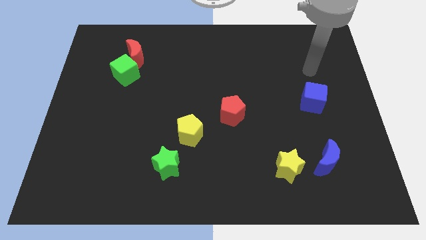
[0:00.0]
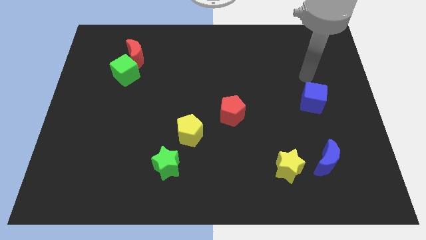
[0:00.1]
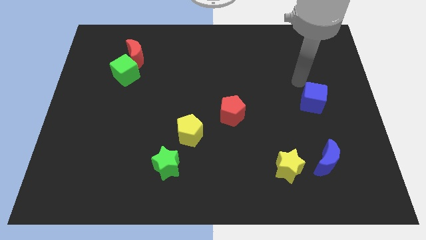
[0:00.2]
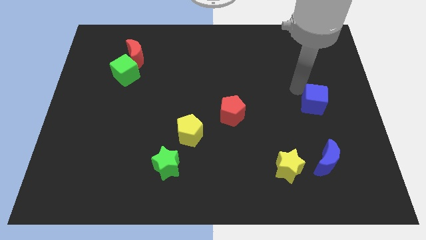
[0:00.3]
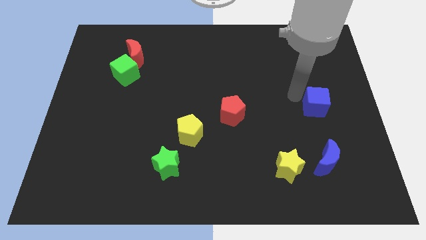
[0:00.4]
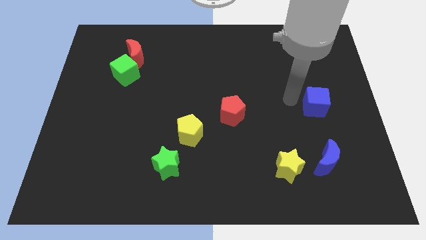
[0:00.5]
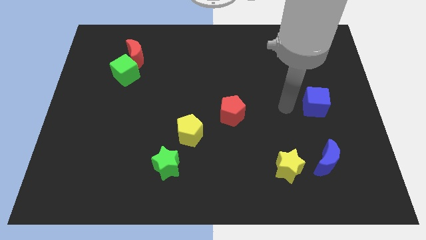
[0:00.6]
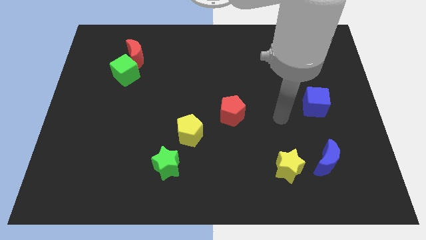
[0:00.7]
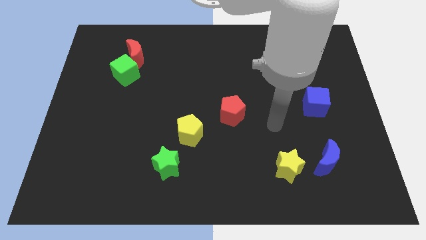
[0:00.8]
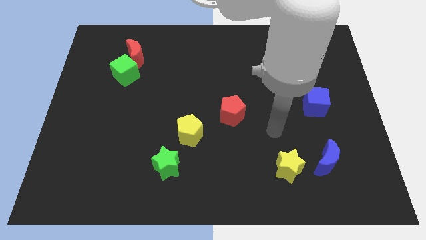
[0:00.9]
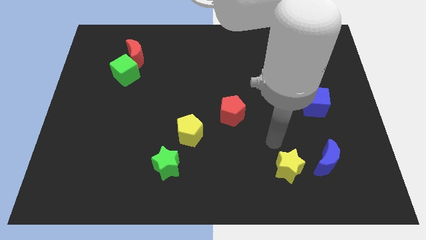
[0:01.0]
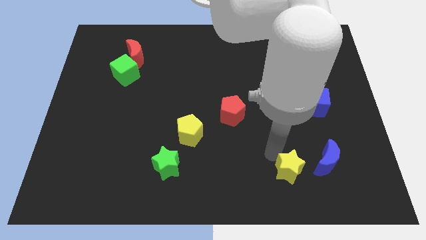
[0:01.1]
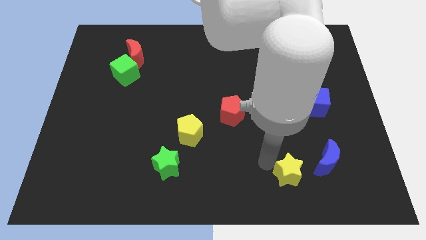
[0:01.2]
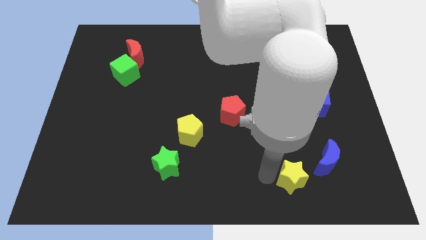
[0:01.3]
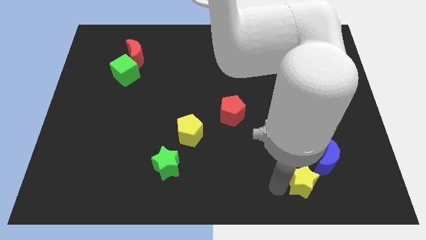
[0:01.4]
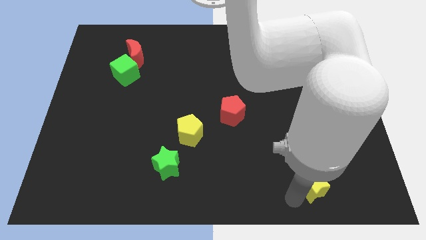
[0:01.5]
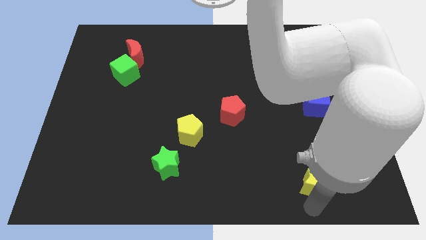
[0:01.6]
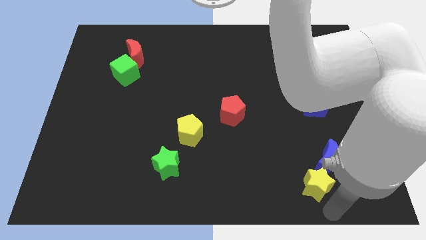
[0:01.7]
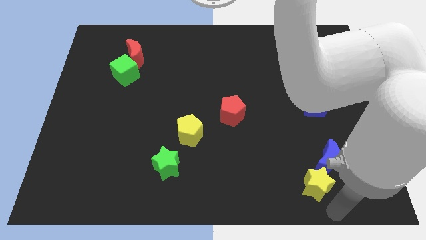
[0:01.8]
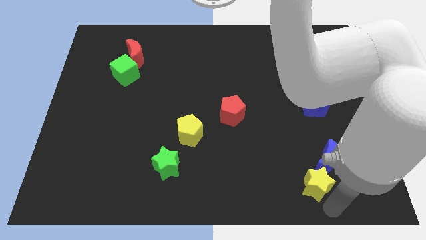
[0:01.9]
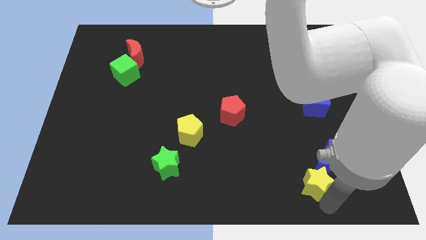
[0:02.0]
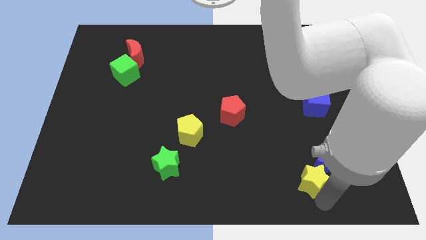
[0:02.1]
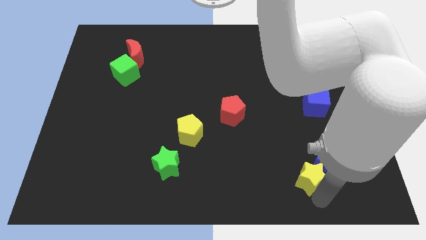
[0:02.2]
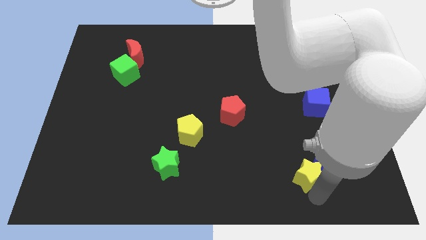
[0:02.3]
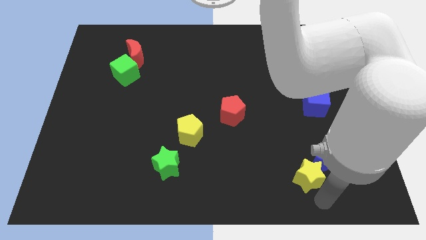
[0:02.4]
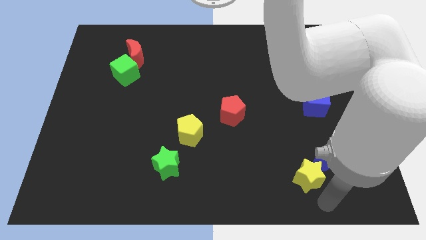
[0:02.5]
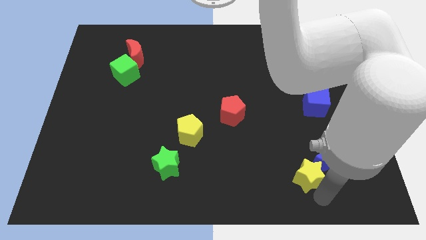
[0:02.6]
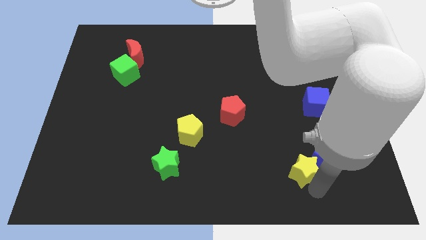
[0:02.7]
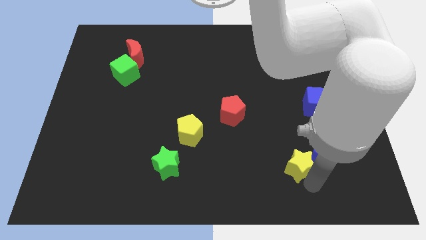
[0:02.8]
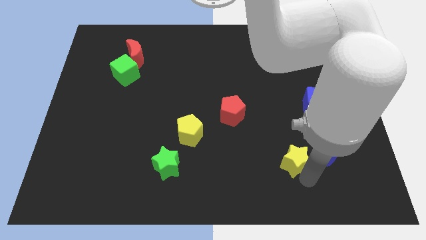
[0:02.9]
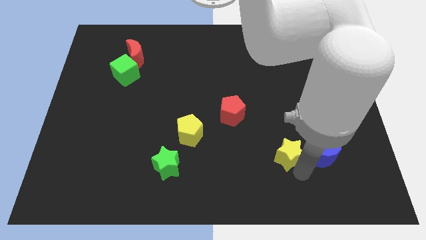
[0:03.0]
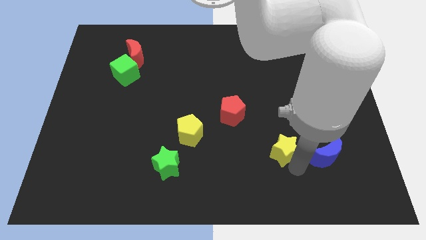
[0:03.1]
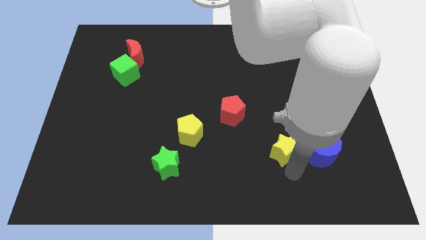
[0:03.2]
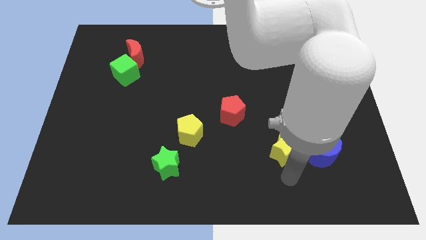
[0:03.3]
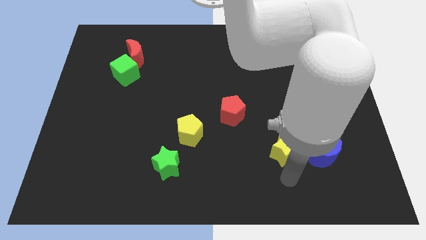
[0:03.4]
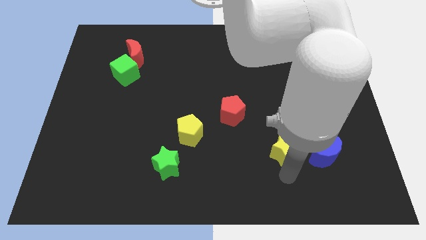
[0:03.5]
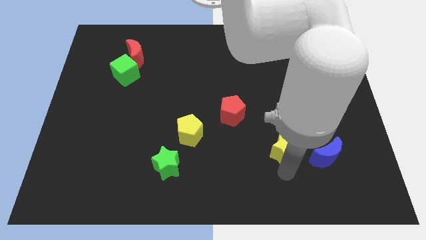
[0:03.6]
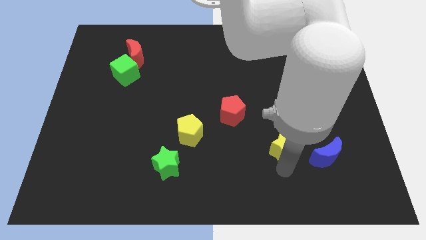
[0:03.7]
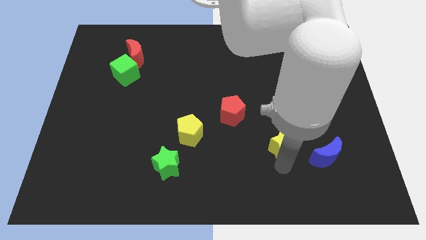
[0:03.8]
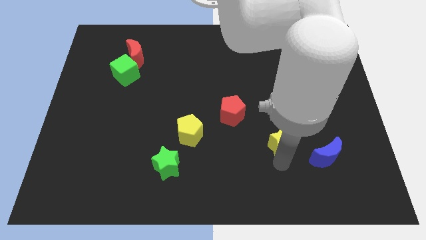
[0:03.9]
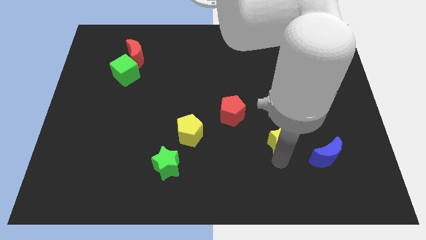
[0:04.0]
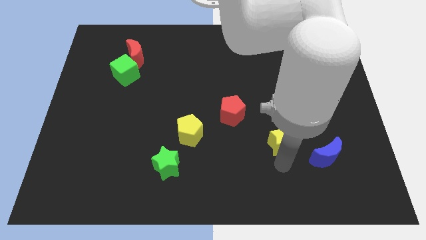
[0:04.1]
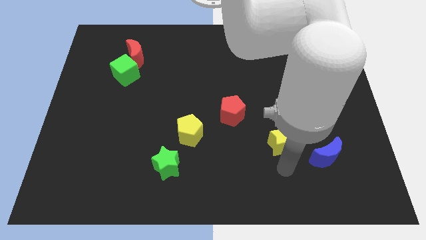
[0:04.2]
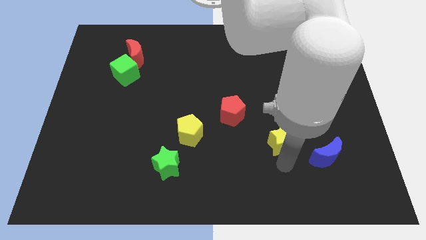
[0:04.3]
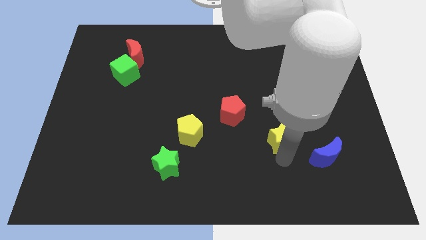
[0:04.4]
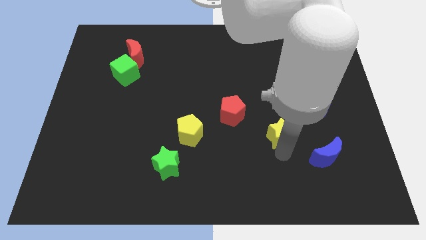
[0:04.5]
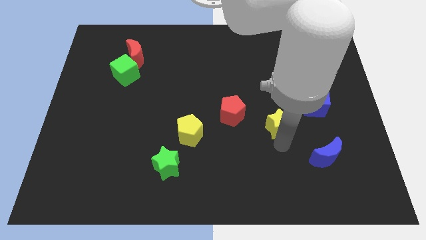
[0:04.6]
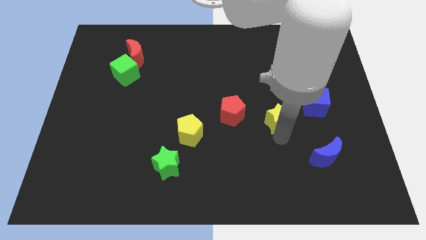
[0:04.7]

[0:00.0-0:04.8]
move the yellow star to the left side of the blue cube

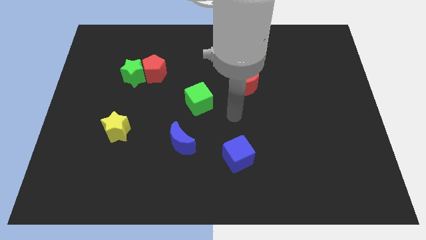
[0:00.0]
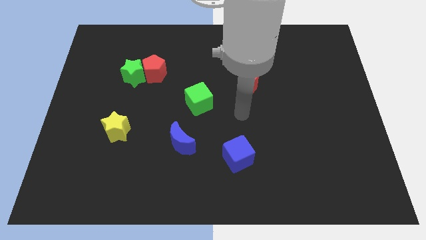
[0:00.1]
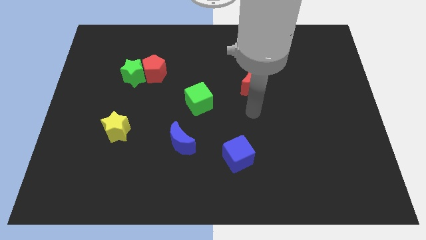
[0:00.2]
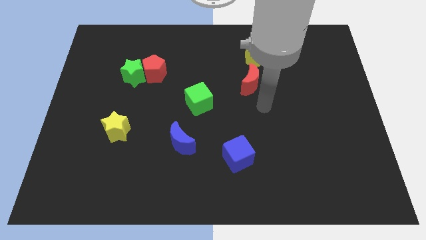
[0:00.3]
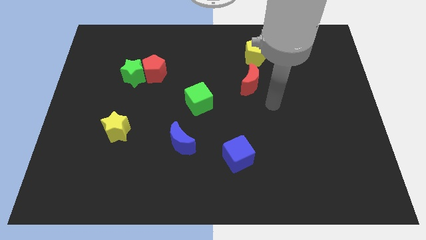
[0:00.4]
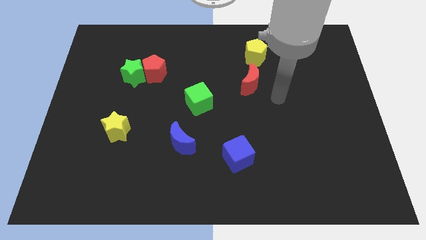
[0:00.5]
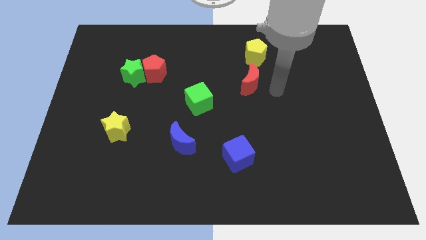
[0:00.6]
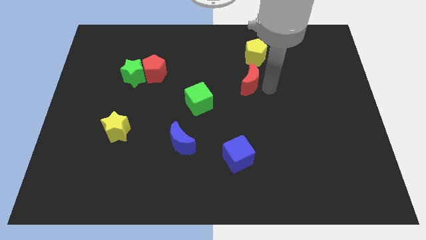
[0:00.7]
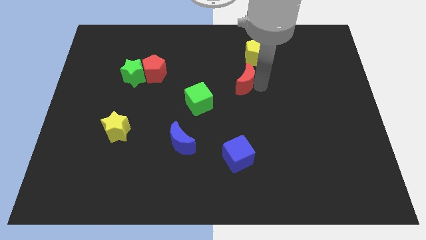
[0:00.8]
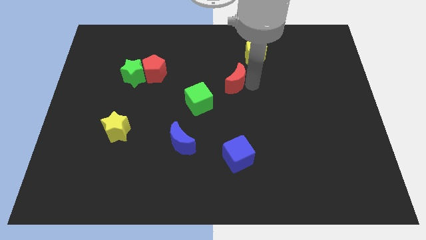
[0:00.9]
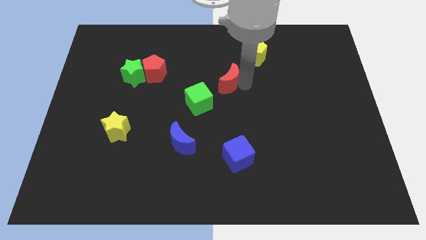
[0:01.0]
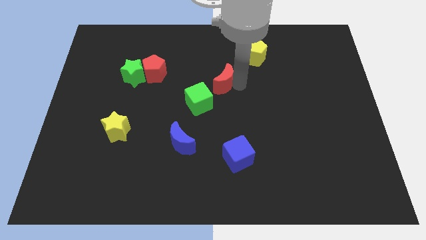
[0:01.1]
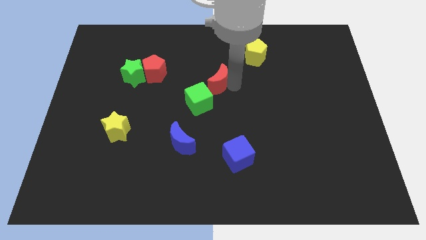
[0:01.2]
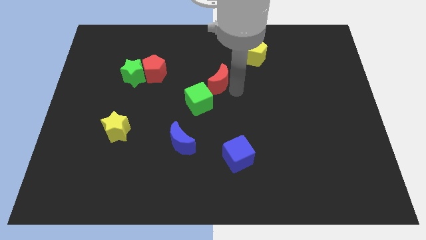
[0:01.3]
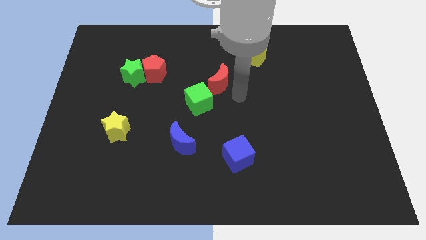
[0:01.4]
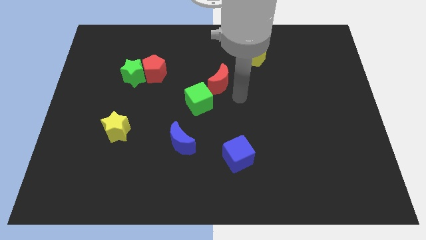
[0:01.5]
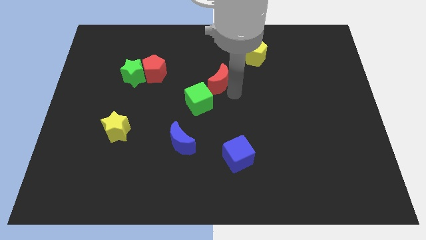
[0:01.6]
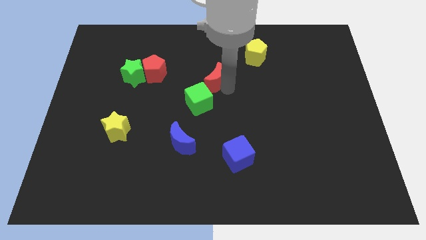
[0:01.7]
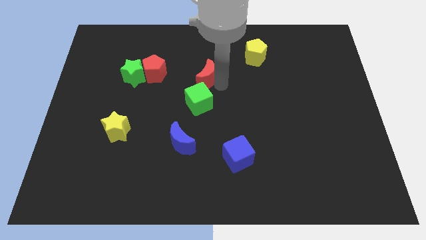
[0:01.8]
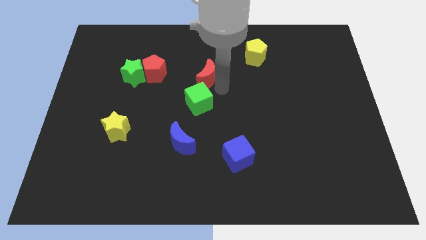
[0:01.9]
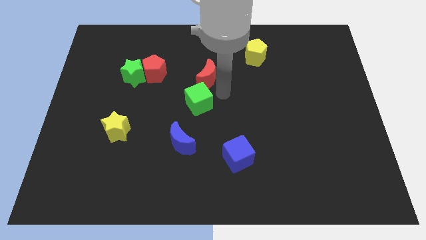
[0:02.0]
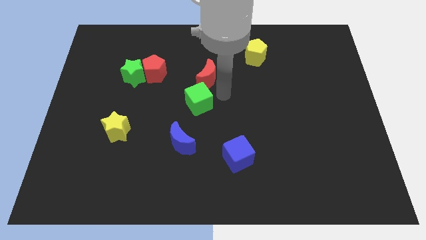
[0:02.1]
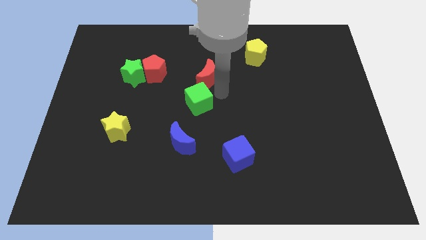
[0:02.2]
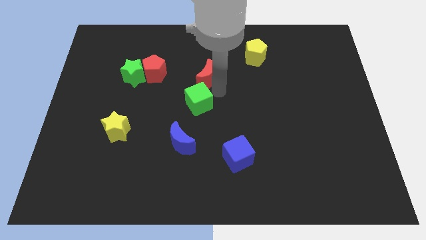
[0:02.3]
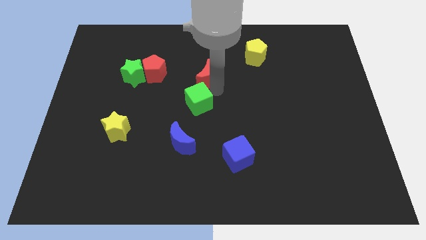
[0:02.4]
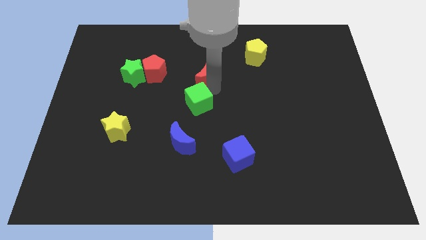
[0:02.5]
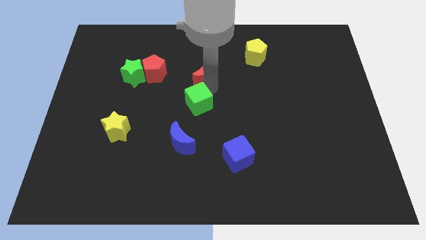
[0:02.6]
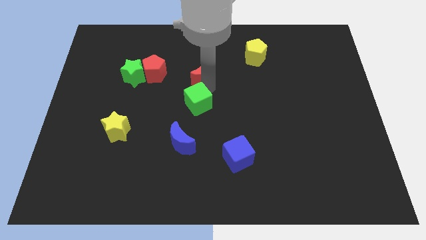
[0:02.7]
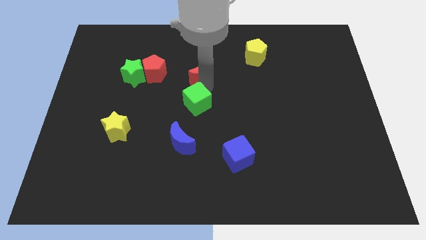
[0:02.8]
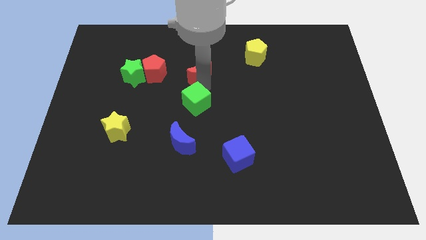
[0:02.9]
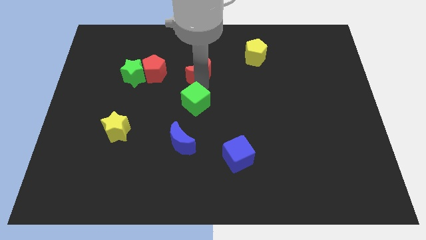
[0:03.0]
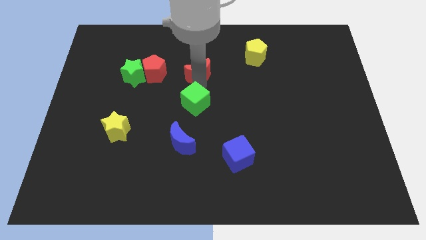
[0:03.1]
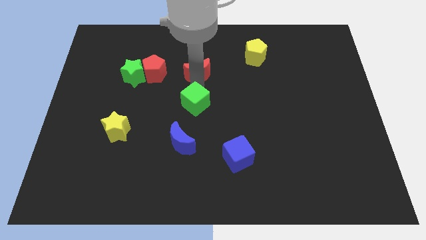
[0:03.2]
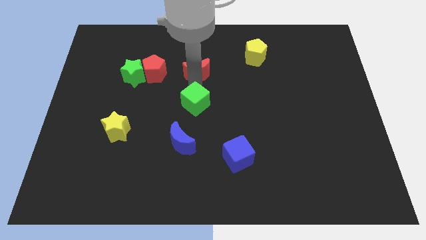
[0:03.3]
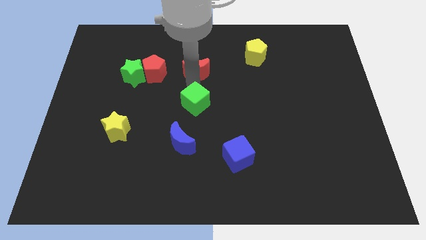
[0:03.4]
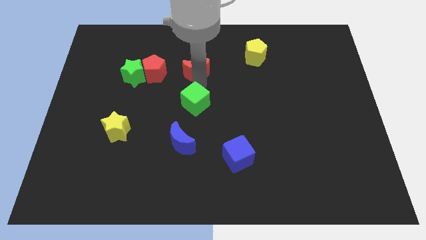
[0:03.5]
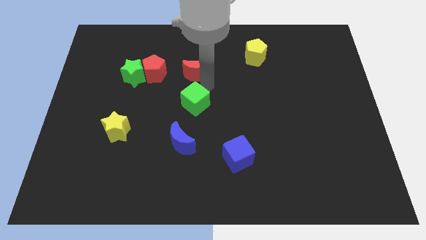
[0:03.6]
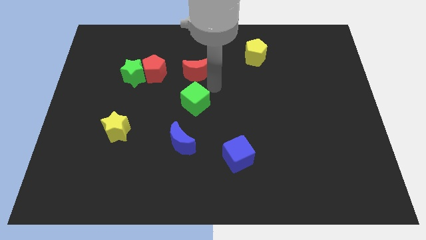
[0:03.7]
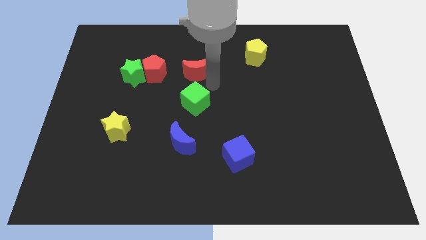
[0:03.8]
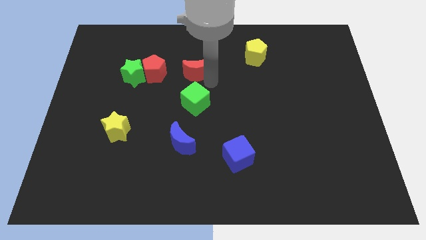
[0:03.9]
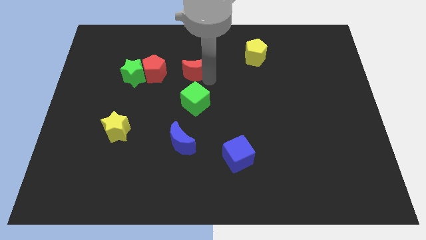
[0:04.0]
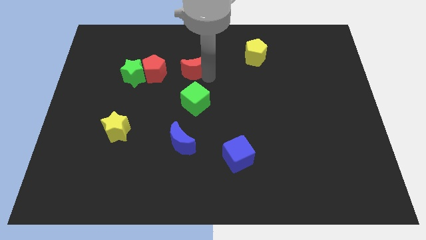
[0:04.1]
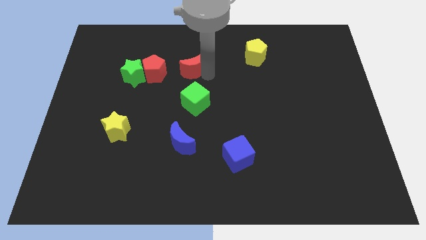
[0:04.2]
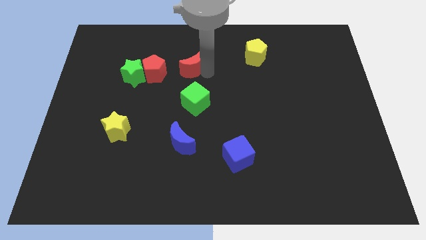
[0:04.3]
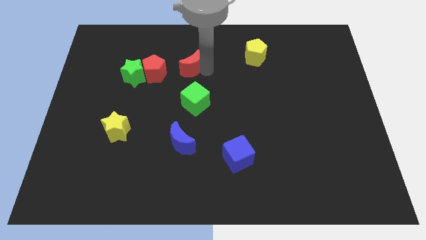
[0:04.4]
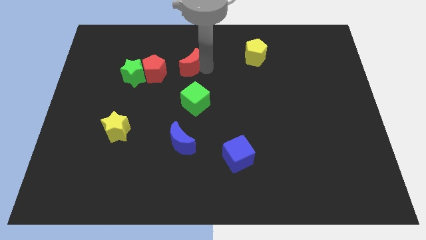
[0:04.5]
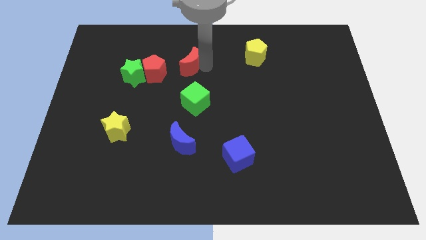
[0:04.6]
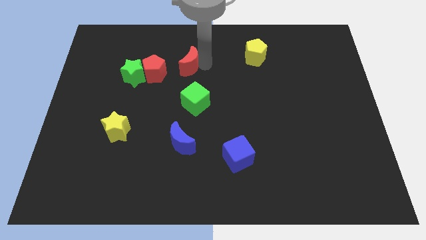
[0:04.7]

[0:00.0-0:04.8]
push the red moon to the top right of the red pentagon
